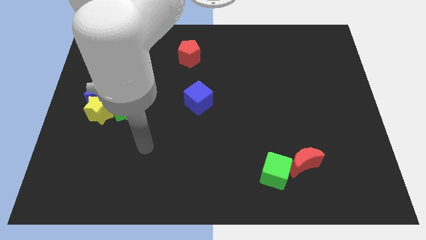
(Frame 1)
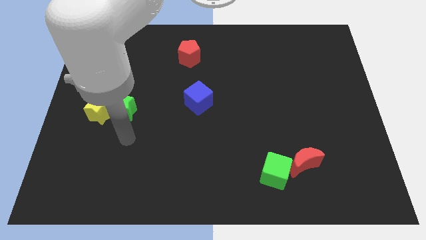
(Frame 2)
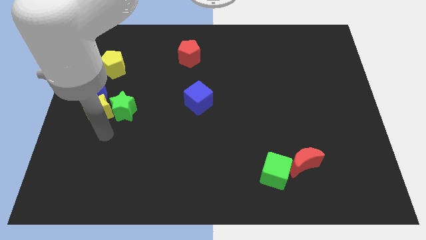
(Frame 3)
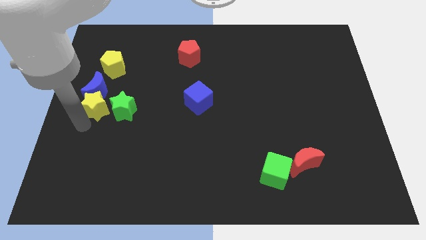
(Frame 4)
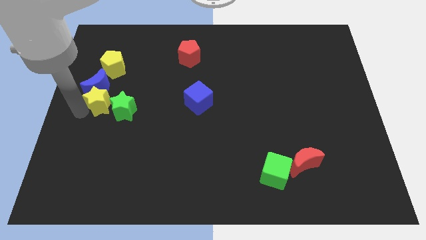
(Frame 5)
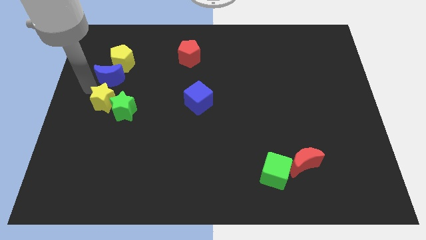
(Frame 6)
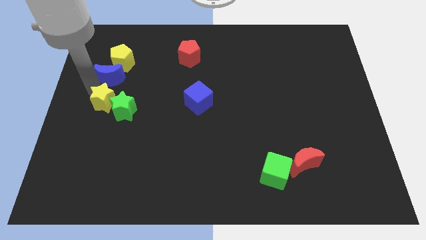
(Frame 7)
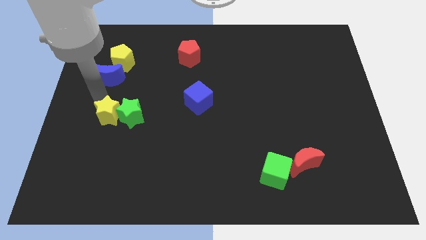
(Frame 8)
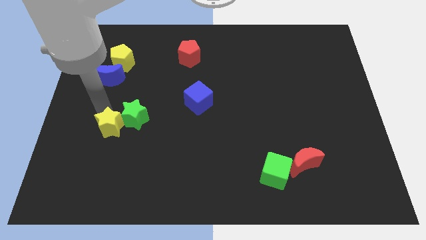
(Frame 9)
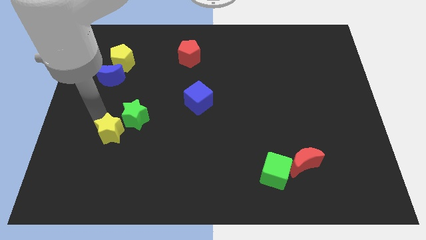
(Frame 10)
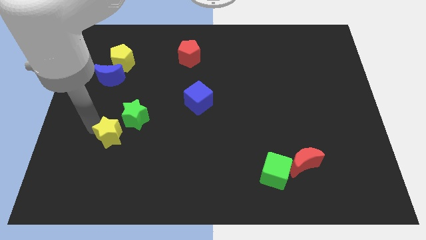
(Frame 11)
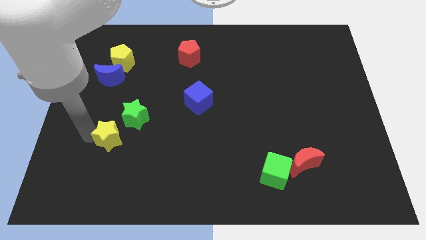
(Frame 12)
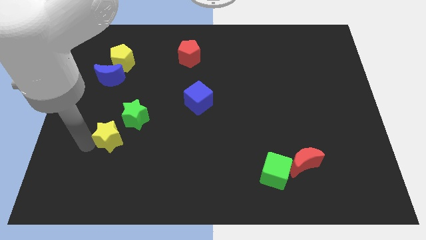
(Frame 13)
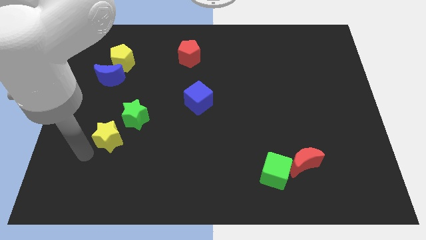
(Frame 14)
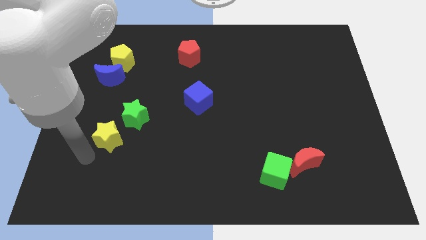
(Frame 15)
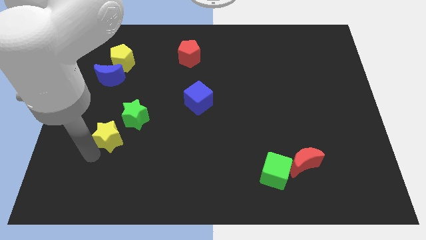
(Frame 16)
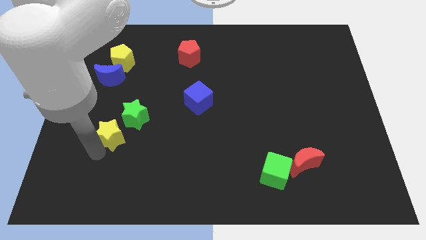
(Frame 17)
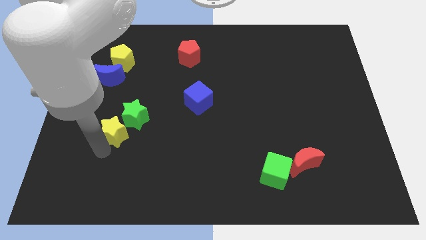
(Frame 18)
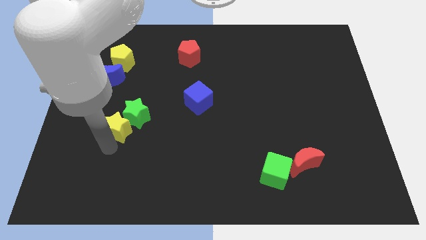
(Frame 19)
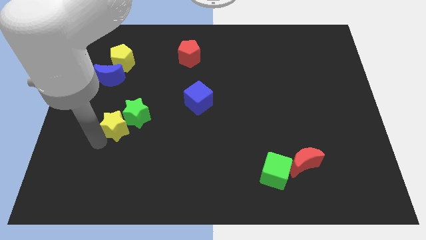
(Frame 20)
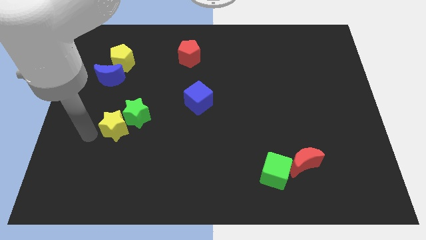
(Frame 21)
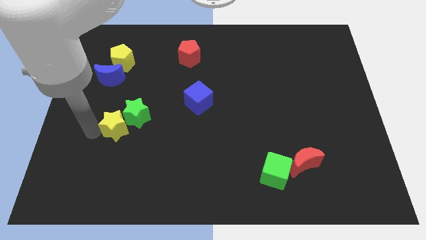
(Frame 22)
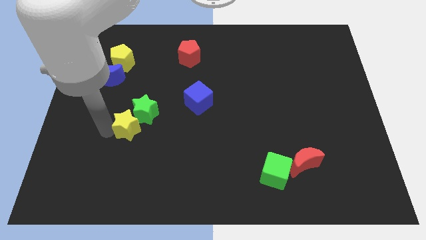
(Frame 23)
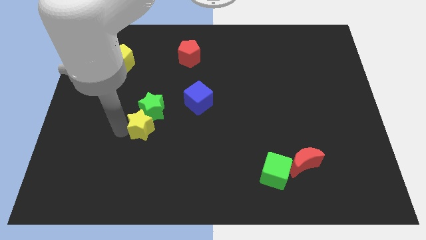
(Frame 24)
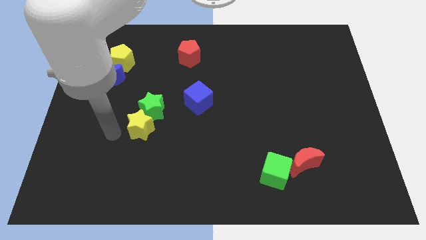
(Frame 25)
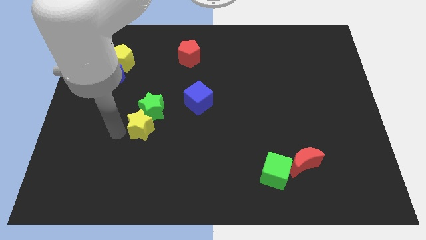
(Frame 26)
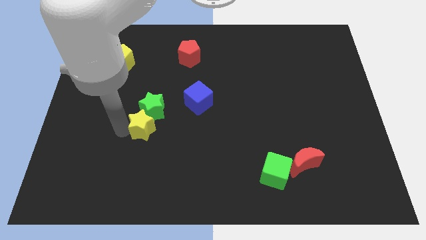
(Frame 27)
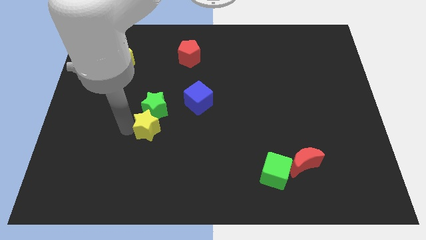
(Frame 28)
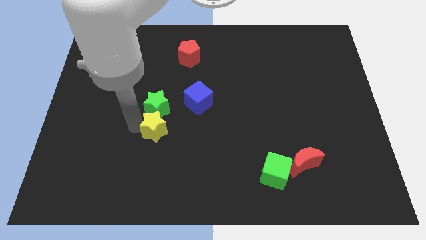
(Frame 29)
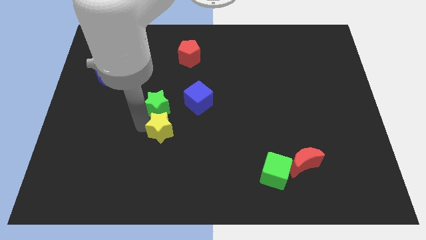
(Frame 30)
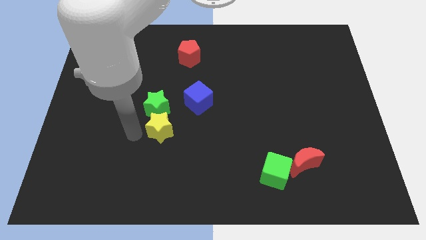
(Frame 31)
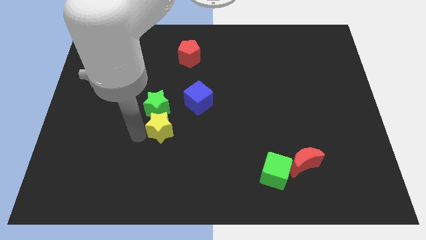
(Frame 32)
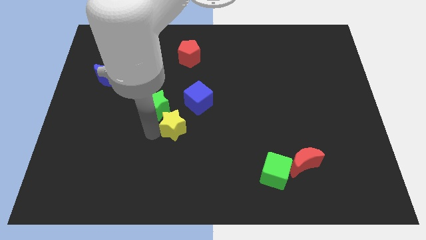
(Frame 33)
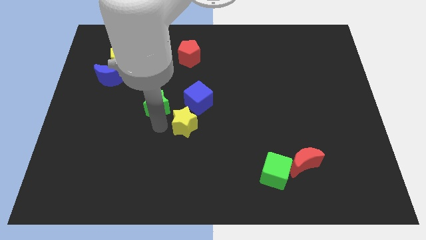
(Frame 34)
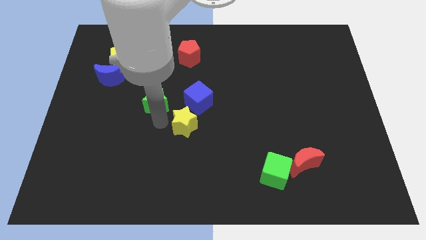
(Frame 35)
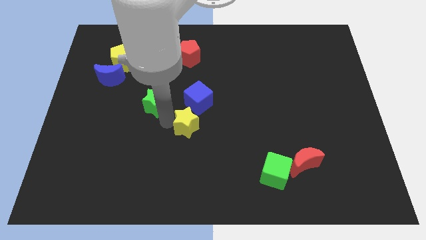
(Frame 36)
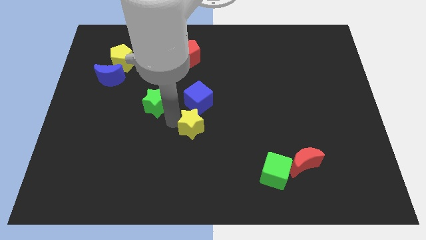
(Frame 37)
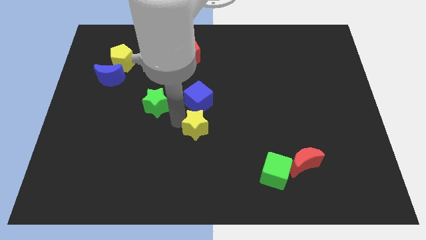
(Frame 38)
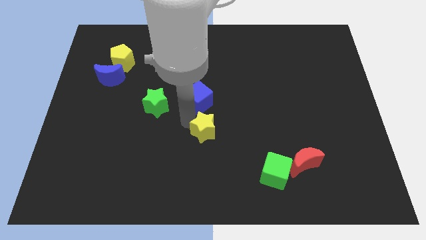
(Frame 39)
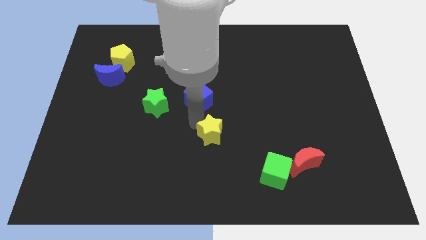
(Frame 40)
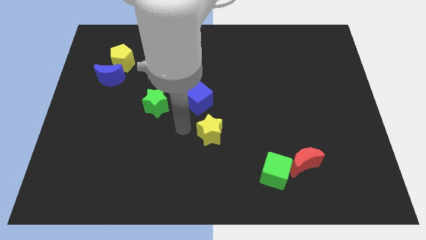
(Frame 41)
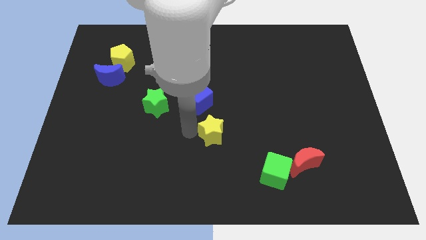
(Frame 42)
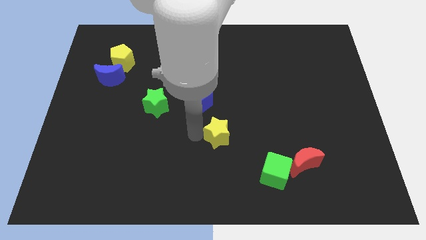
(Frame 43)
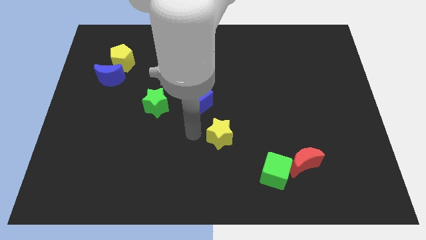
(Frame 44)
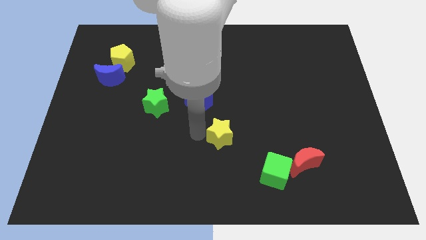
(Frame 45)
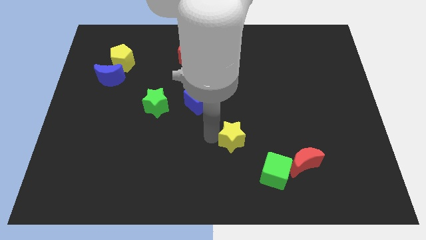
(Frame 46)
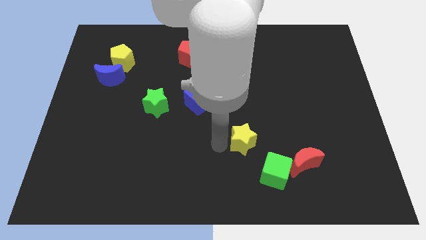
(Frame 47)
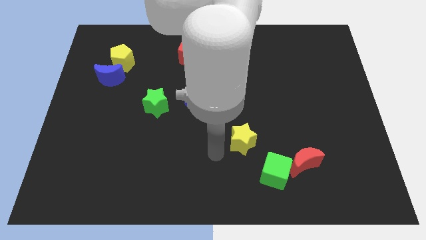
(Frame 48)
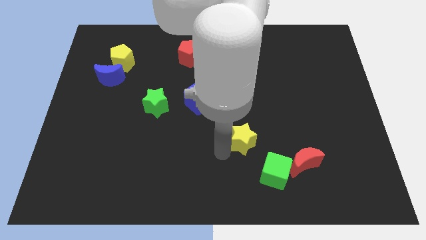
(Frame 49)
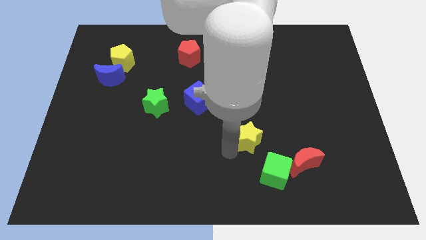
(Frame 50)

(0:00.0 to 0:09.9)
push the yellow star to the top of the green cube

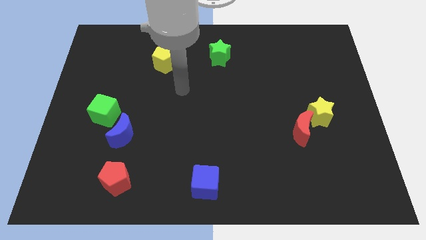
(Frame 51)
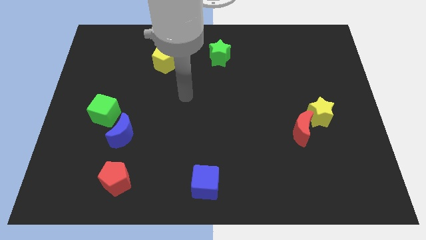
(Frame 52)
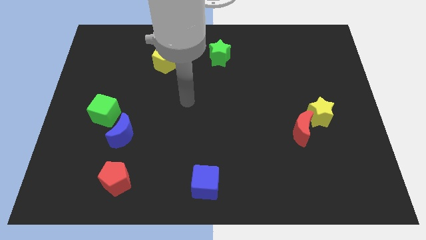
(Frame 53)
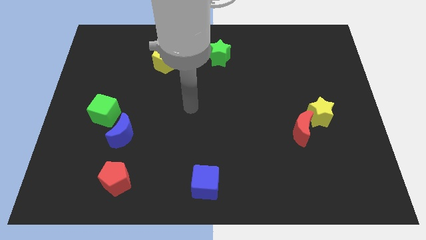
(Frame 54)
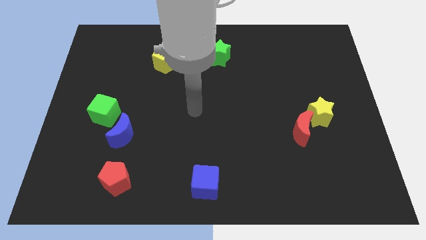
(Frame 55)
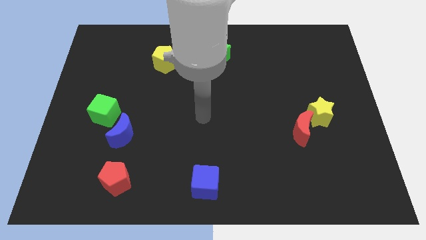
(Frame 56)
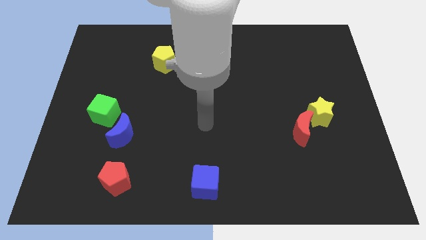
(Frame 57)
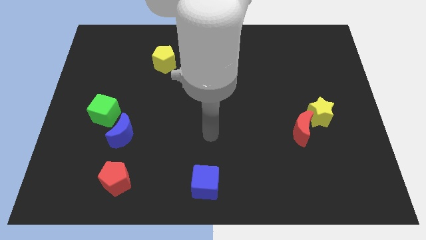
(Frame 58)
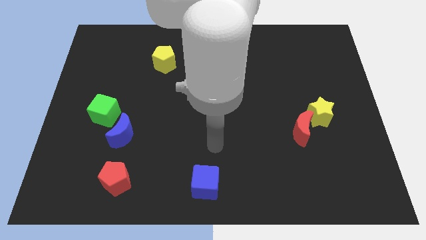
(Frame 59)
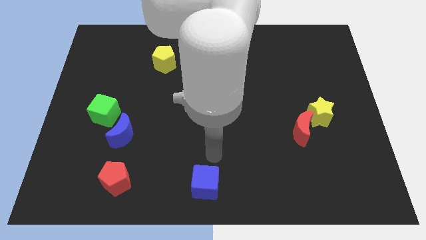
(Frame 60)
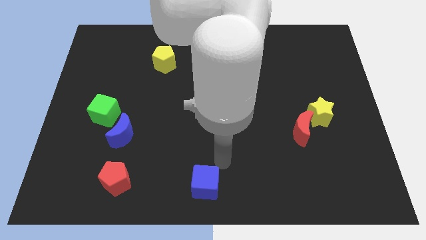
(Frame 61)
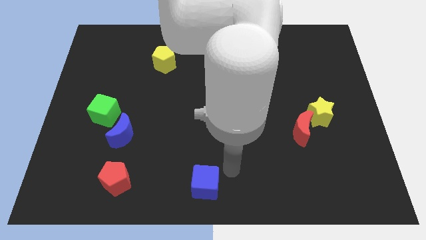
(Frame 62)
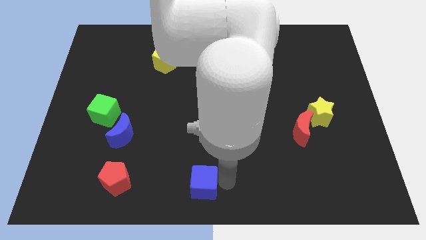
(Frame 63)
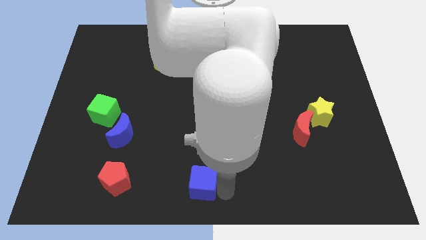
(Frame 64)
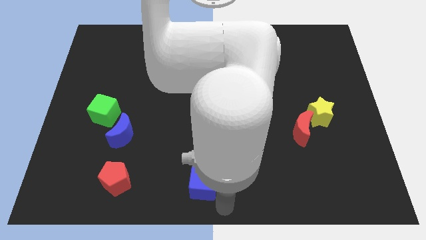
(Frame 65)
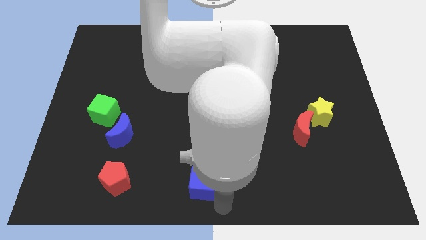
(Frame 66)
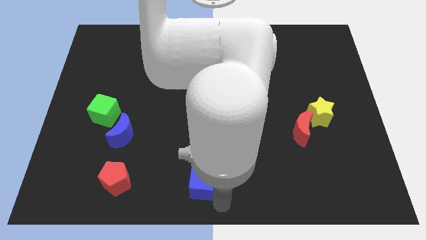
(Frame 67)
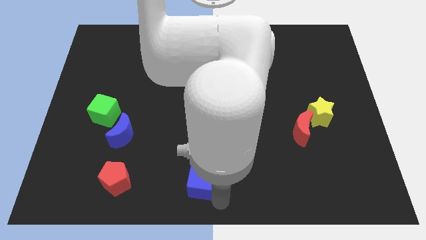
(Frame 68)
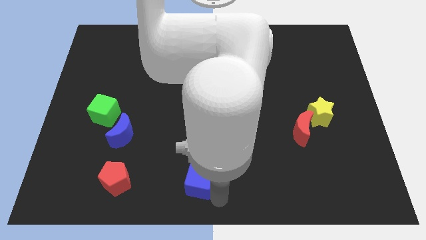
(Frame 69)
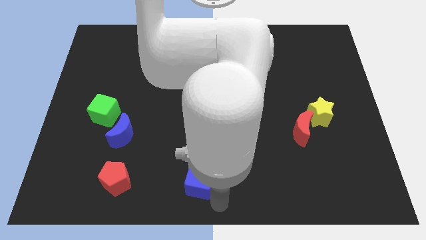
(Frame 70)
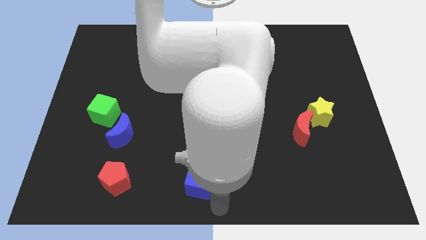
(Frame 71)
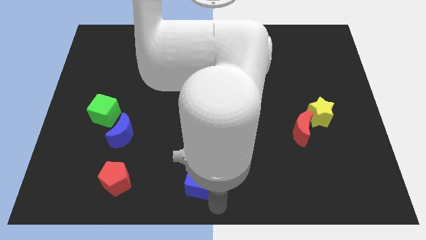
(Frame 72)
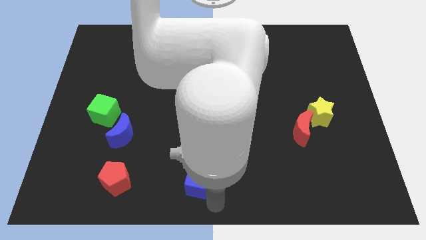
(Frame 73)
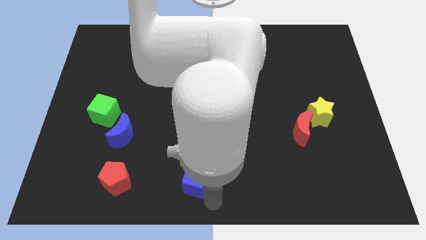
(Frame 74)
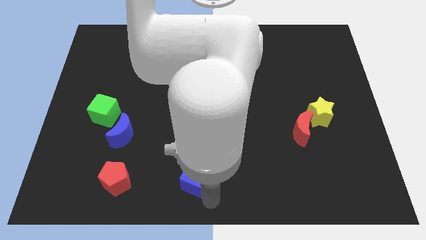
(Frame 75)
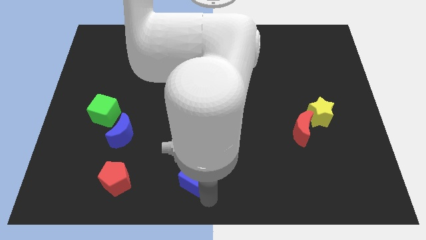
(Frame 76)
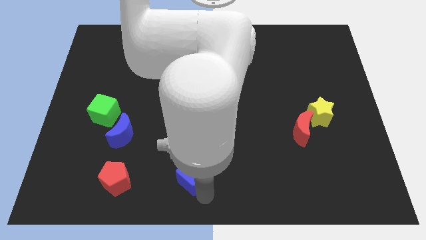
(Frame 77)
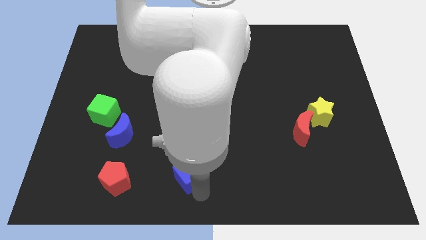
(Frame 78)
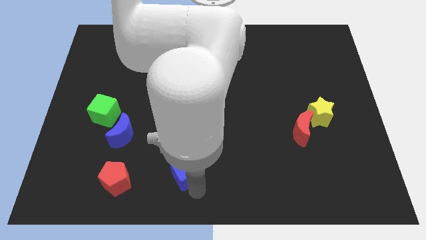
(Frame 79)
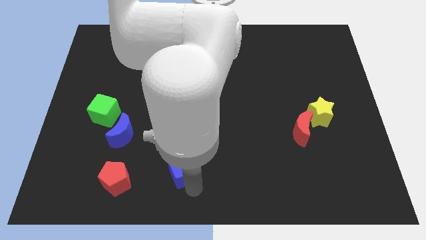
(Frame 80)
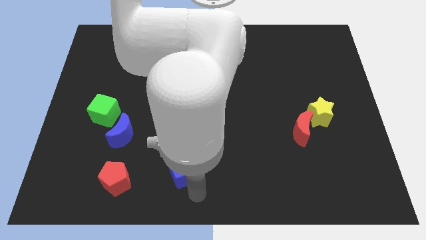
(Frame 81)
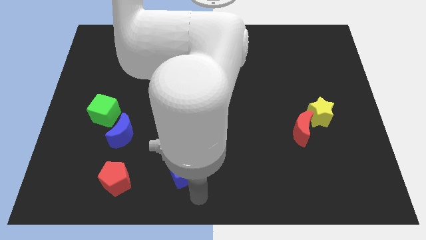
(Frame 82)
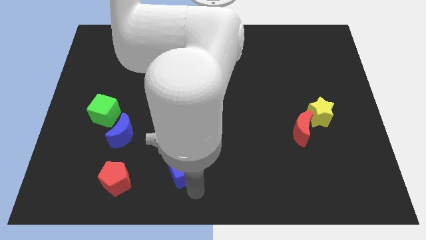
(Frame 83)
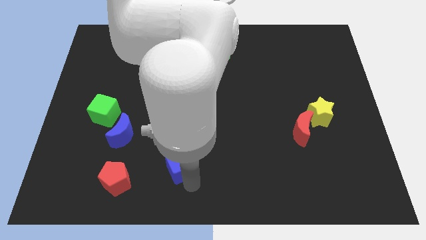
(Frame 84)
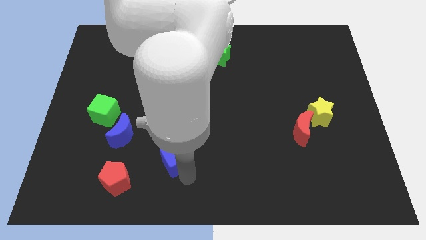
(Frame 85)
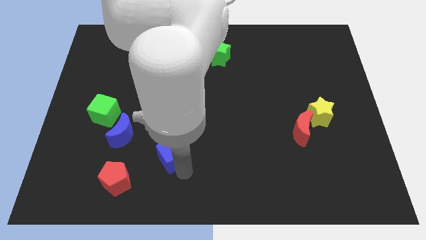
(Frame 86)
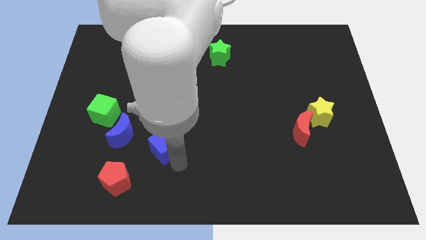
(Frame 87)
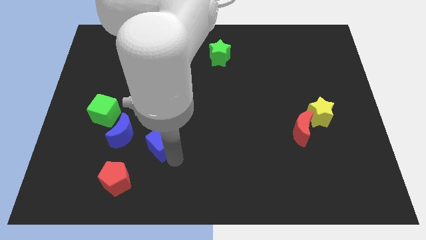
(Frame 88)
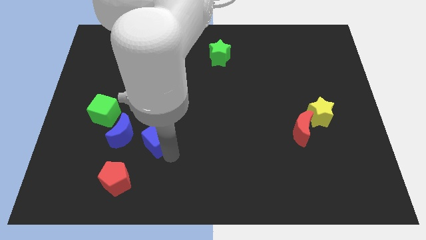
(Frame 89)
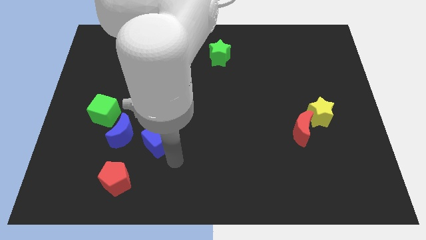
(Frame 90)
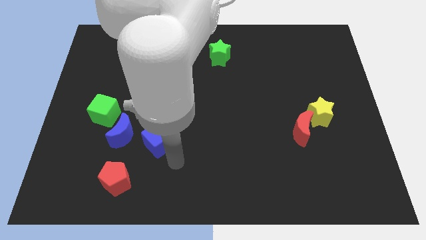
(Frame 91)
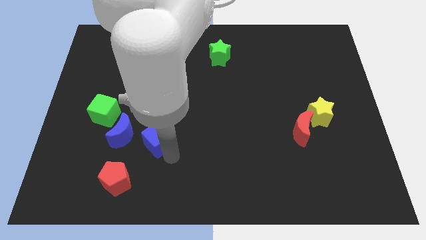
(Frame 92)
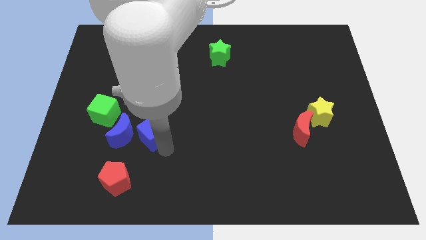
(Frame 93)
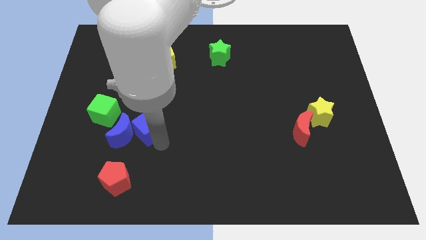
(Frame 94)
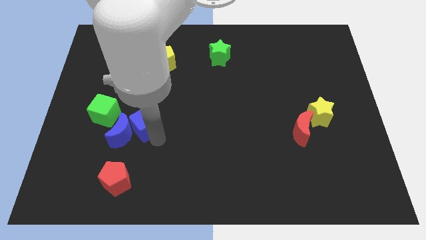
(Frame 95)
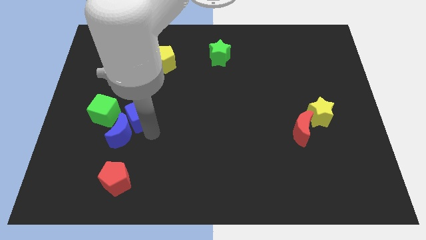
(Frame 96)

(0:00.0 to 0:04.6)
slide the blue cube to the top side of the blue moon
